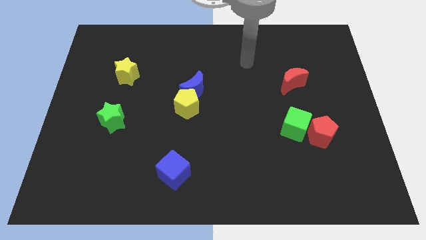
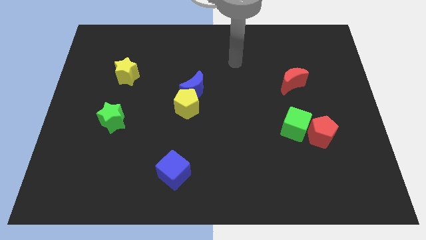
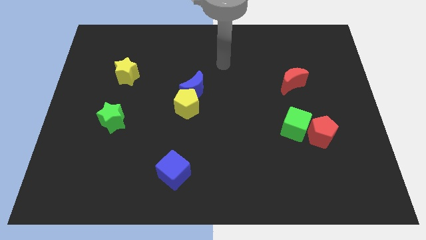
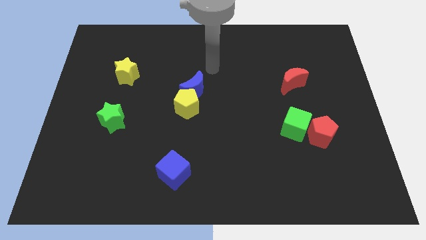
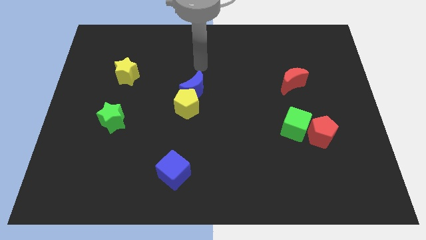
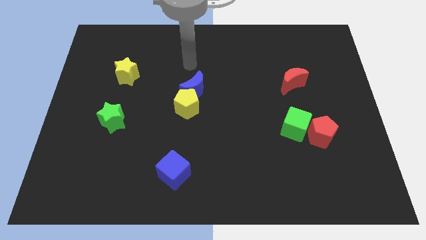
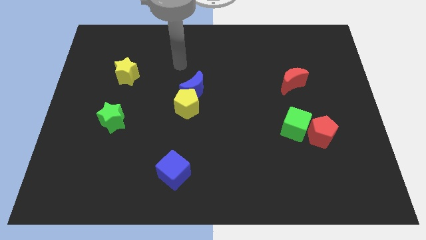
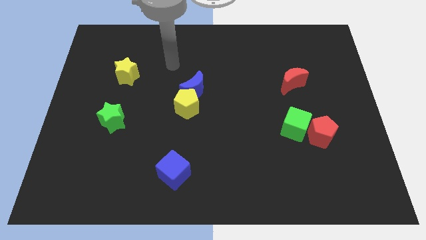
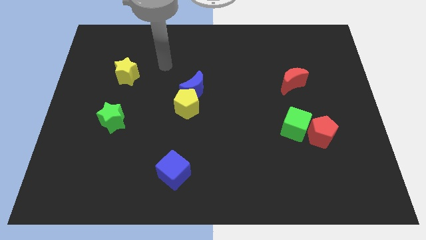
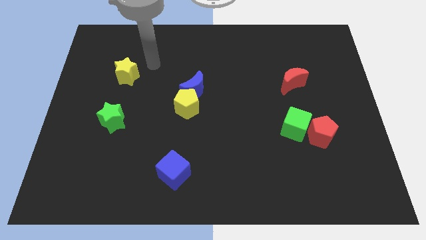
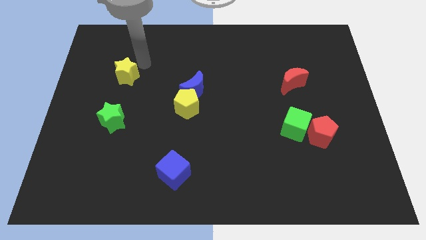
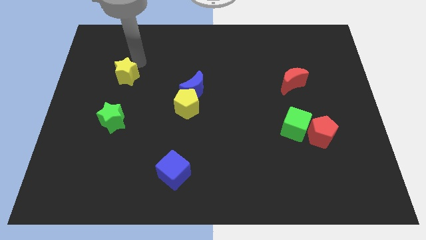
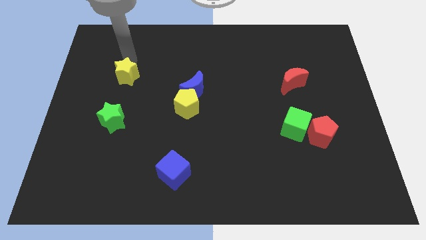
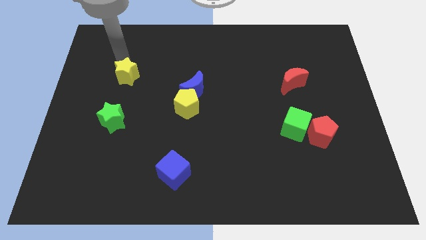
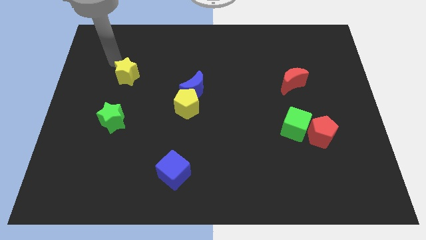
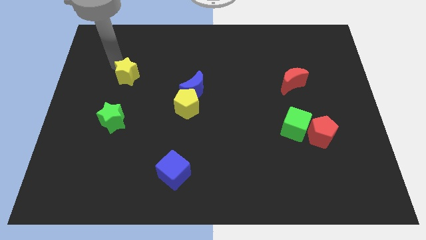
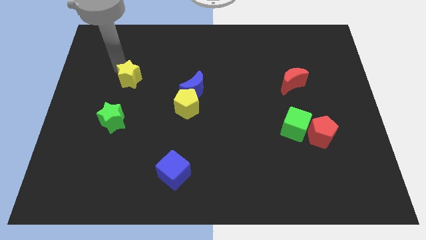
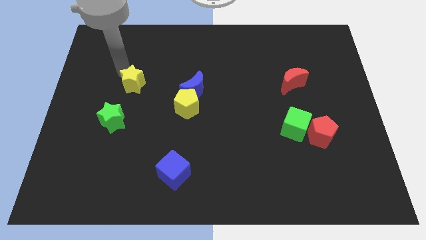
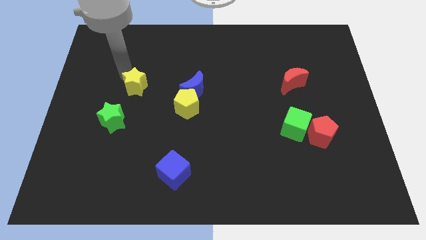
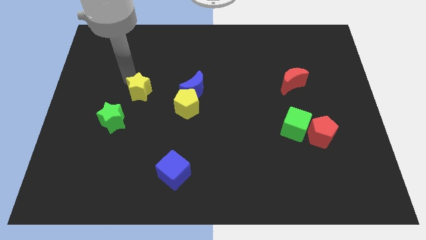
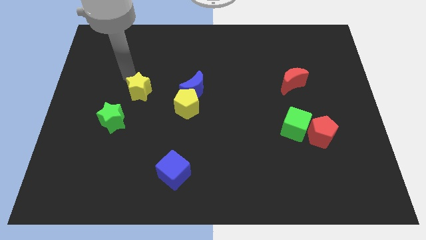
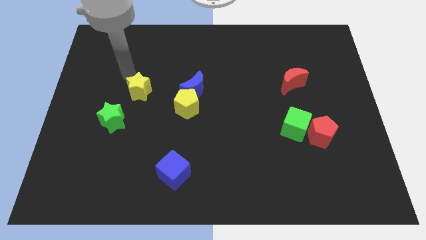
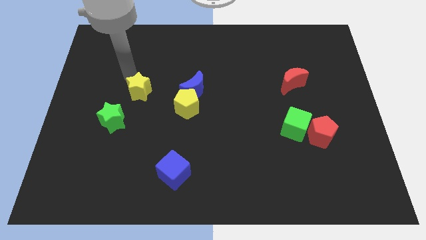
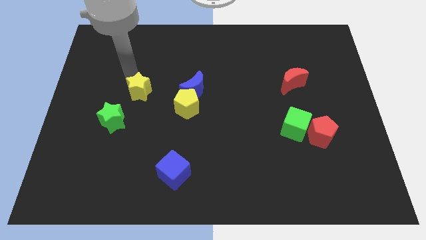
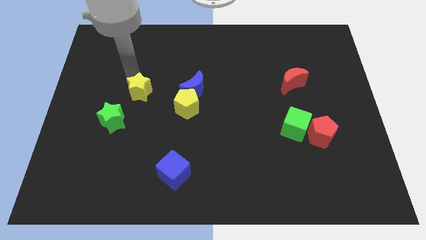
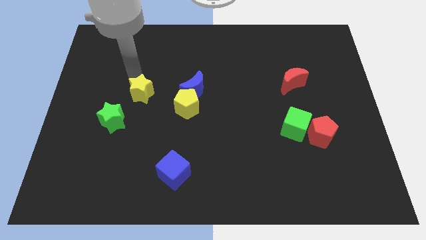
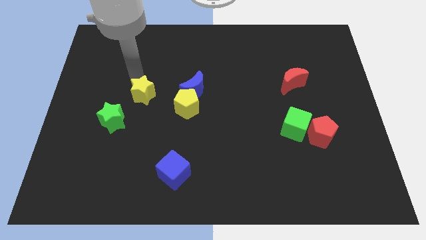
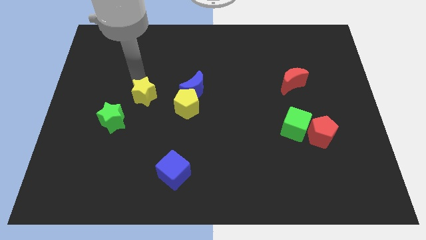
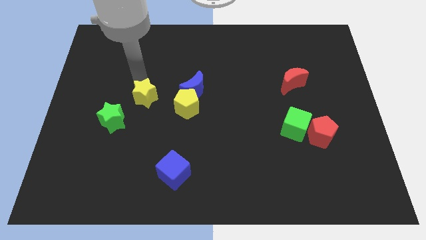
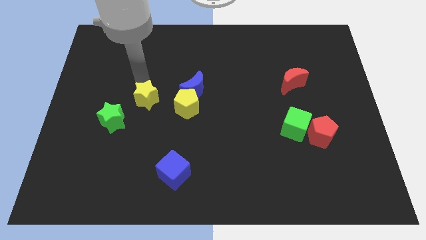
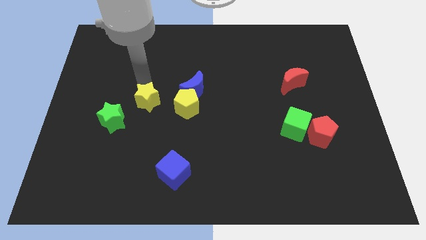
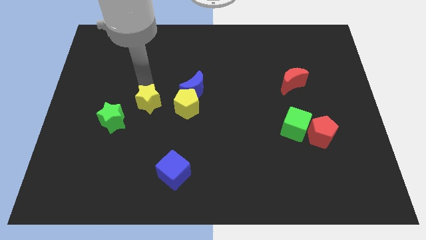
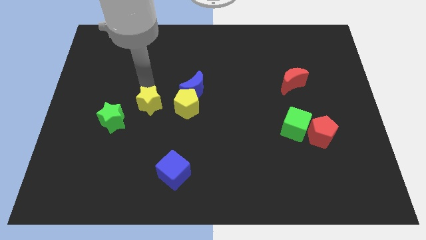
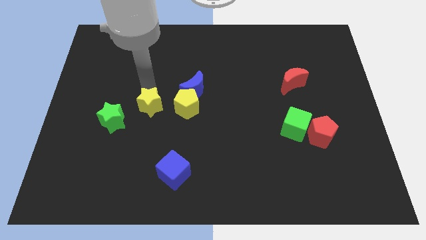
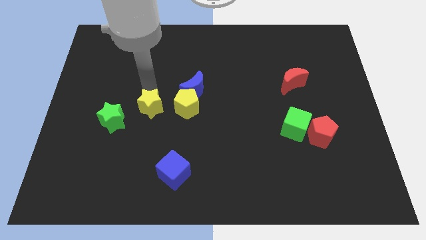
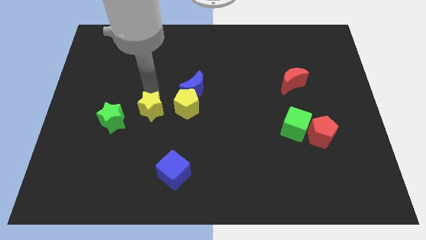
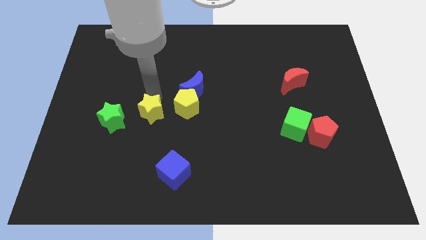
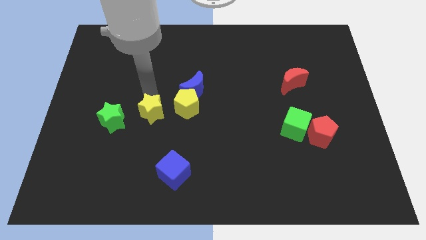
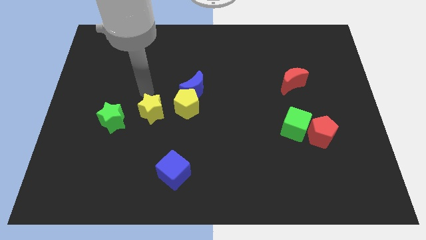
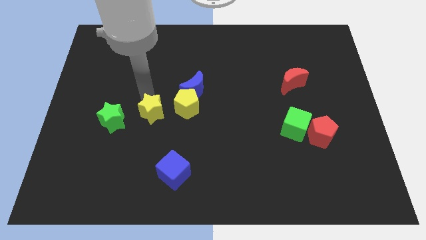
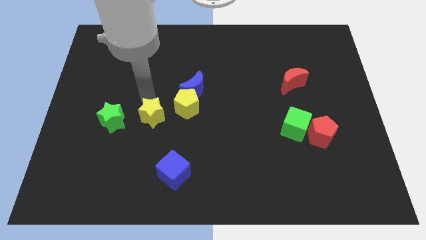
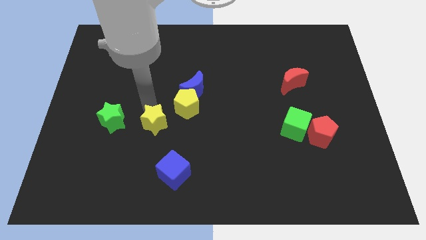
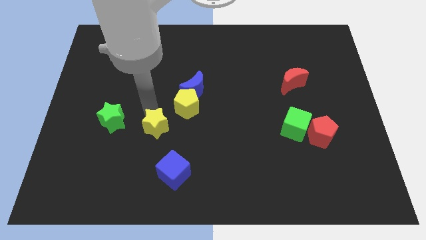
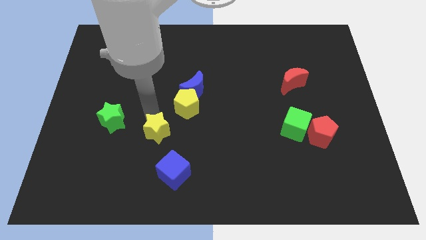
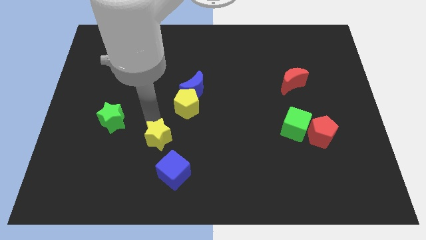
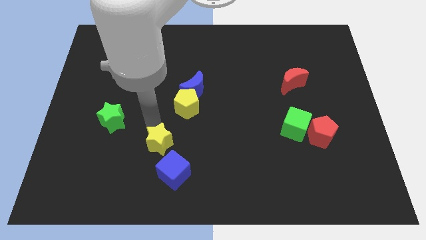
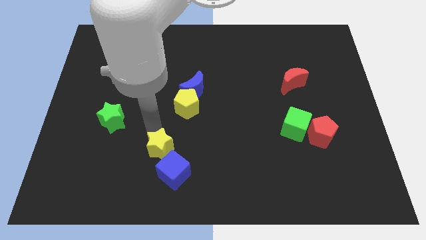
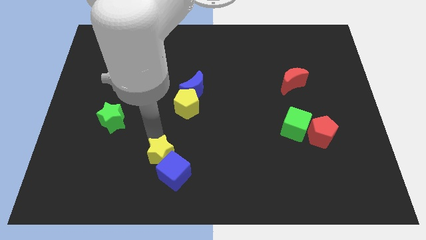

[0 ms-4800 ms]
move the yellow star to the blue cube

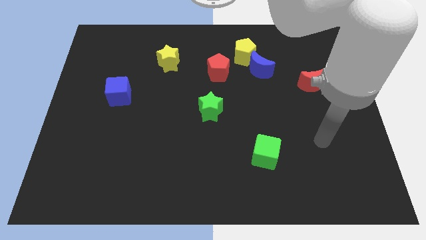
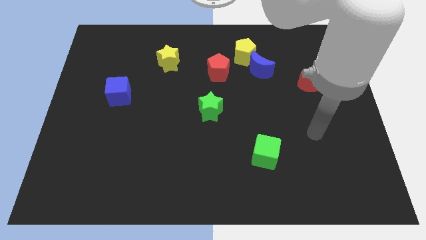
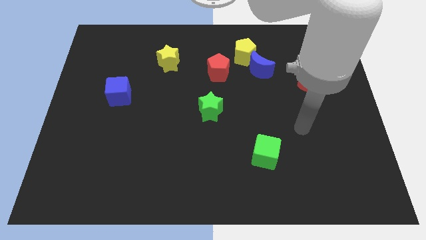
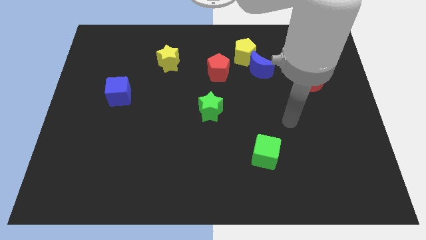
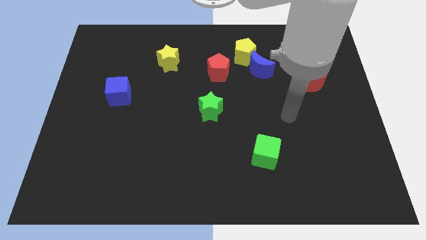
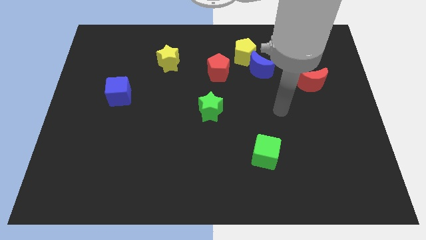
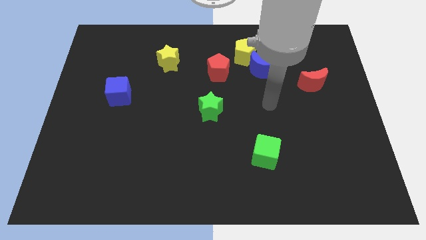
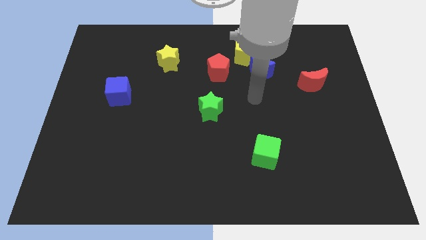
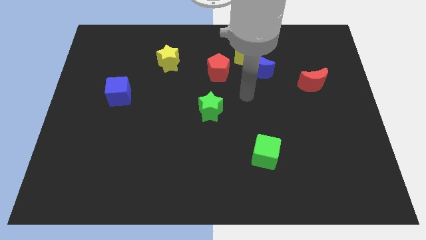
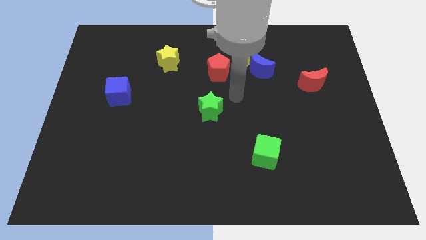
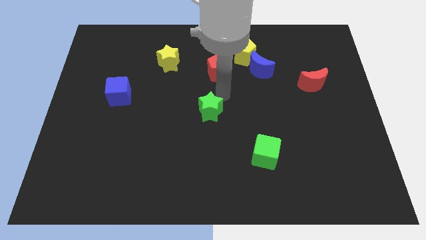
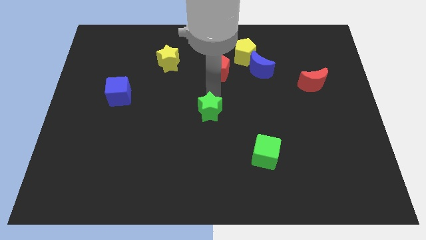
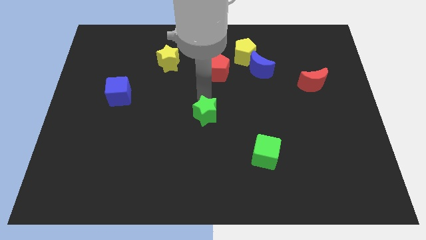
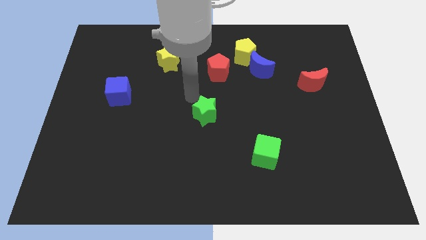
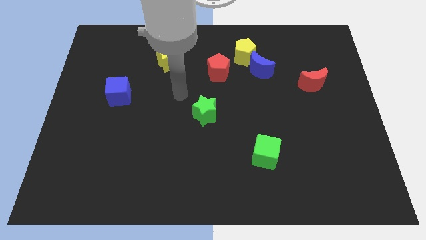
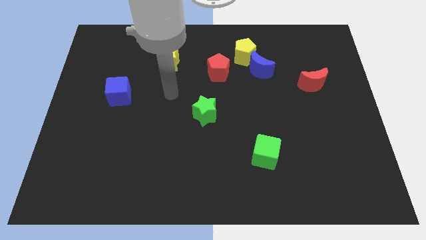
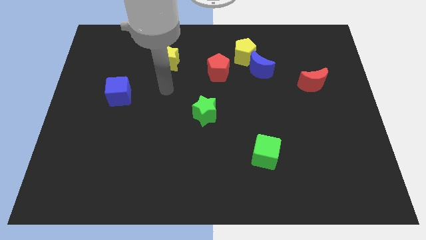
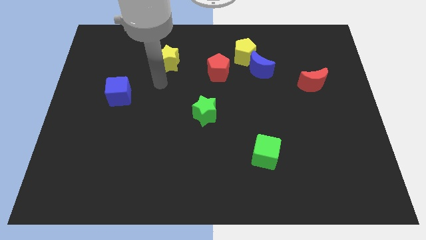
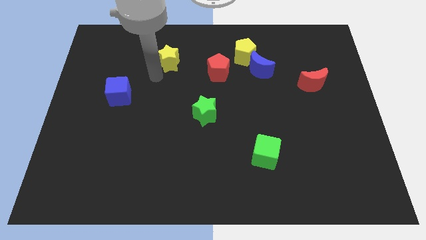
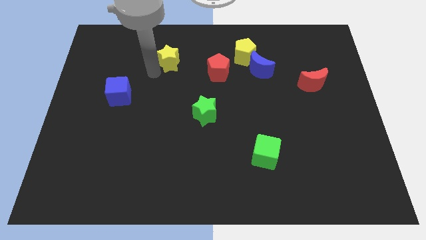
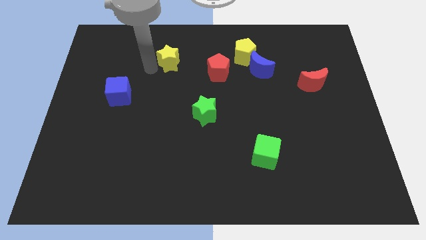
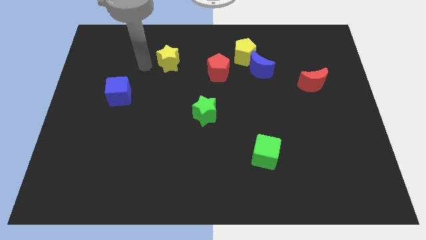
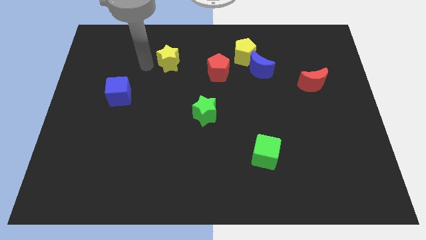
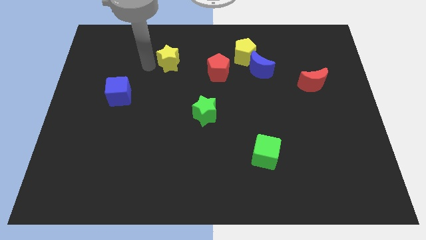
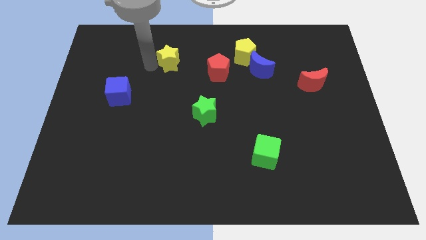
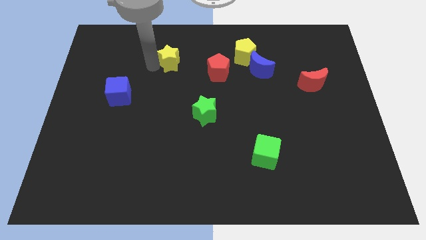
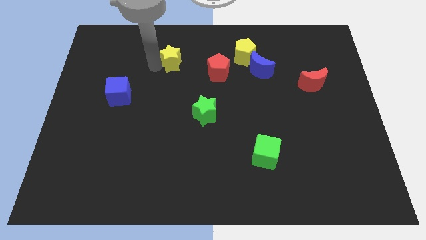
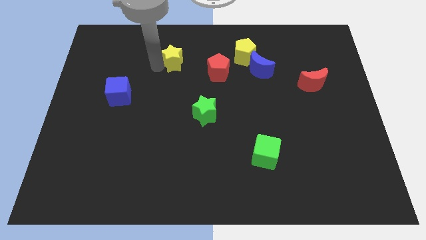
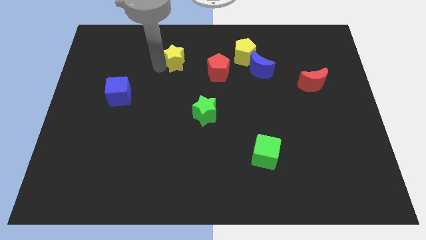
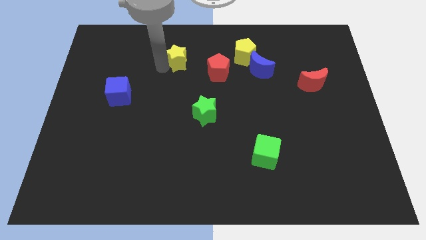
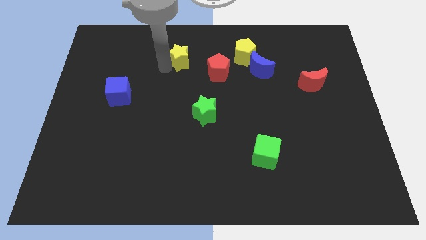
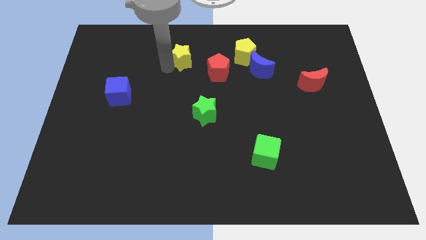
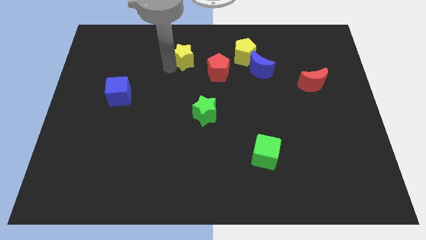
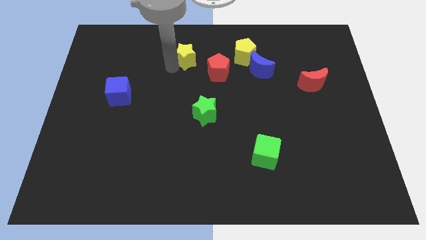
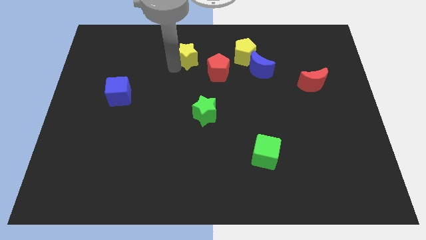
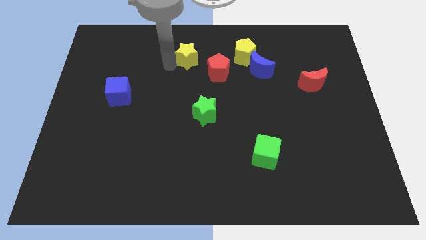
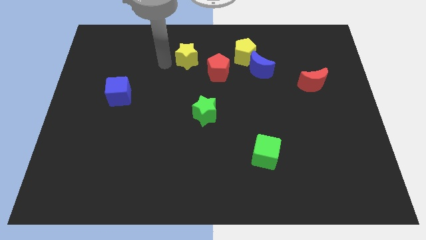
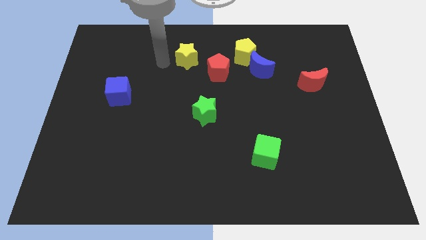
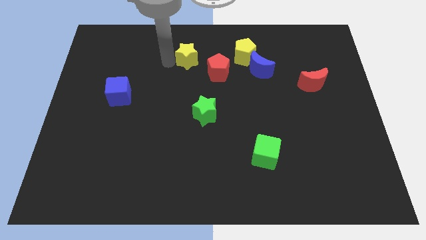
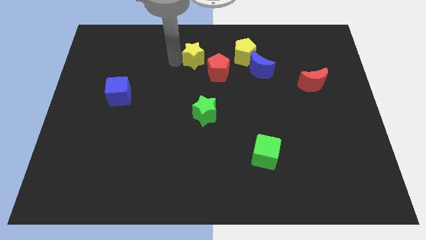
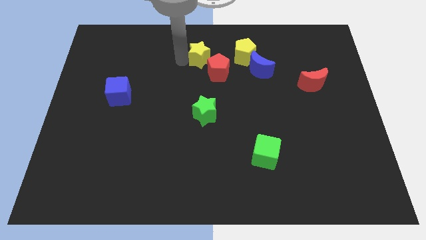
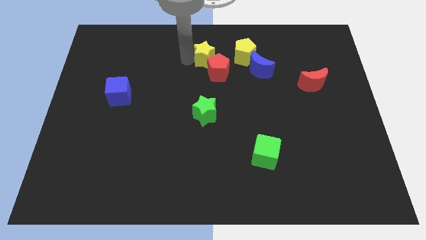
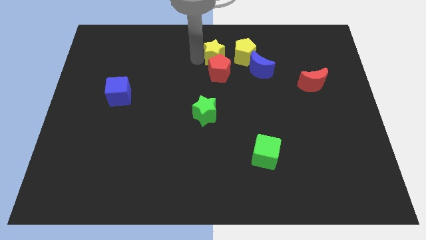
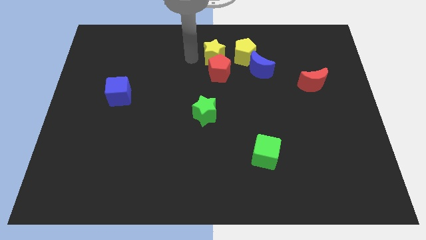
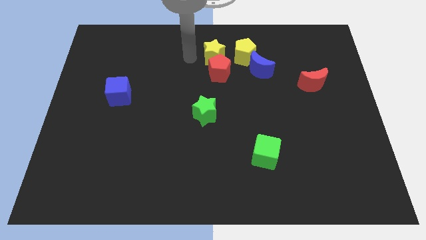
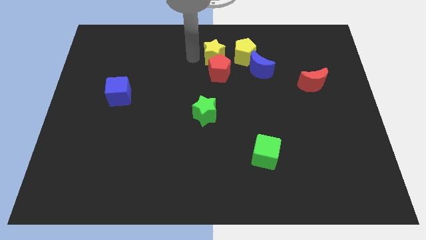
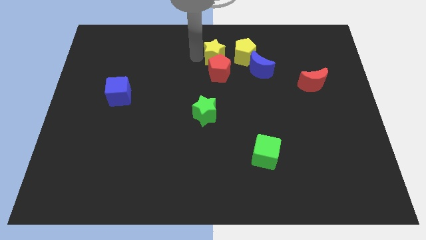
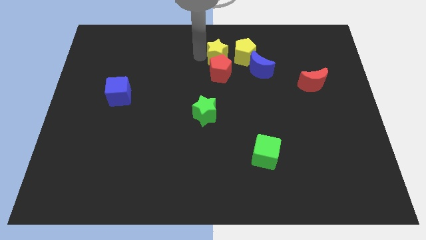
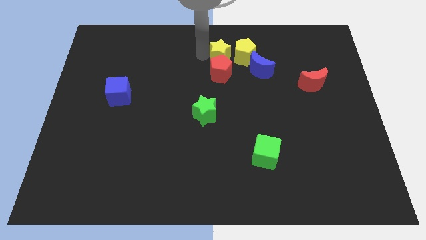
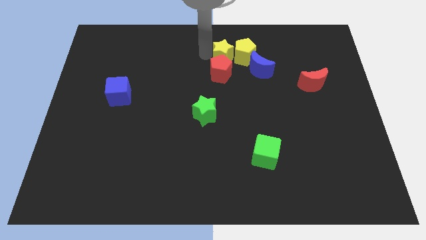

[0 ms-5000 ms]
put the yellow star towards the yellow pentagon
